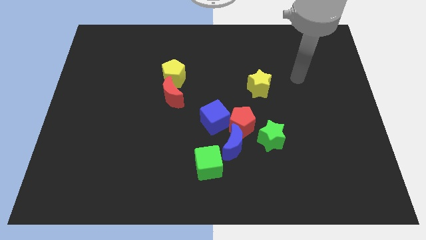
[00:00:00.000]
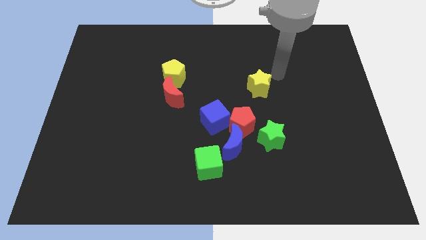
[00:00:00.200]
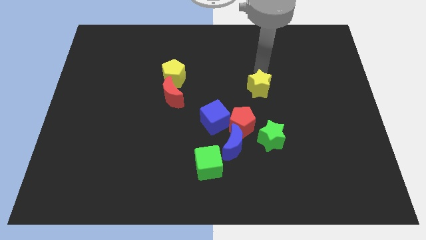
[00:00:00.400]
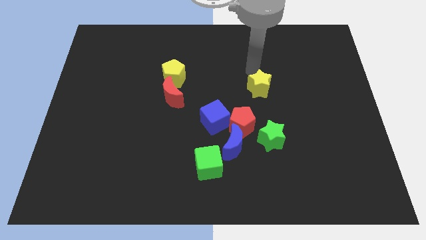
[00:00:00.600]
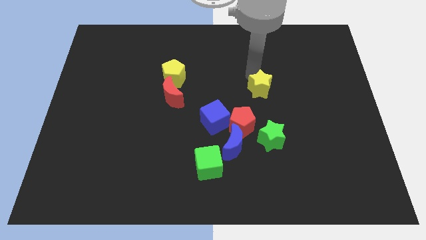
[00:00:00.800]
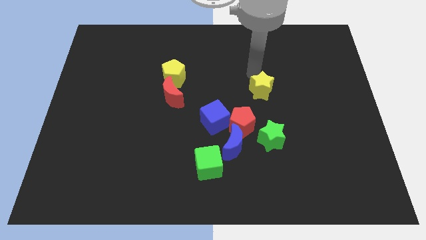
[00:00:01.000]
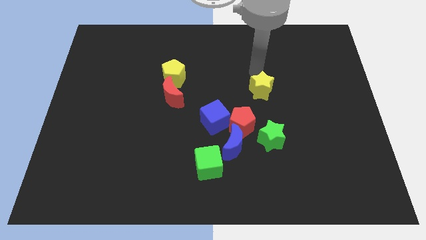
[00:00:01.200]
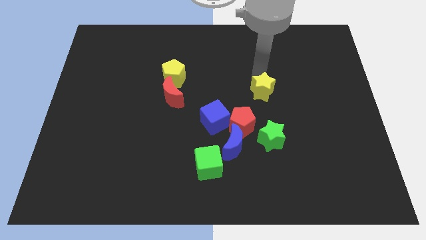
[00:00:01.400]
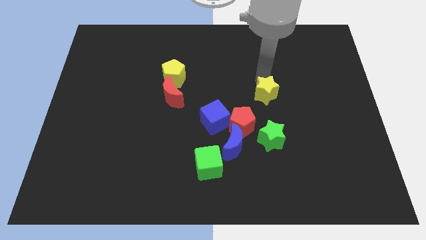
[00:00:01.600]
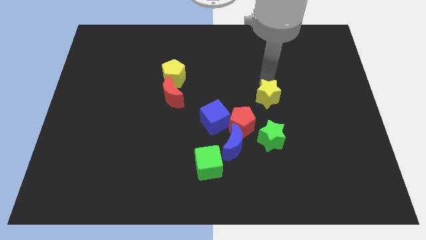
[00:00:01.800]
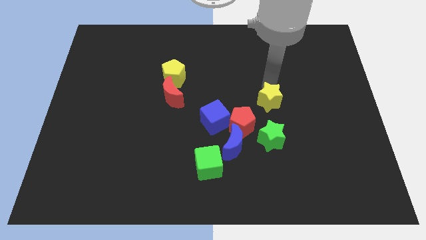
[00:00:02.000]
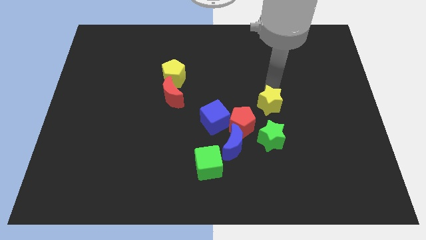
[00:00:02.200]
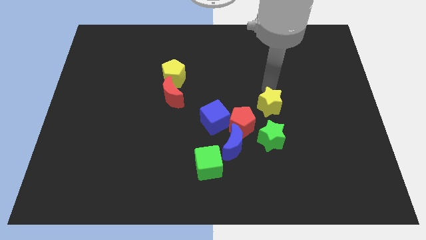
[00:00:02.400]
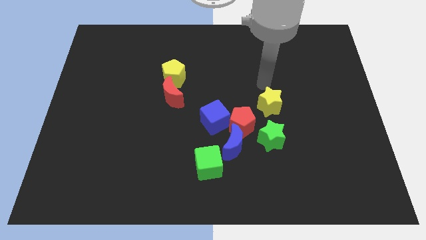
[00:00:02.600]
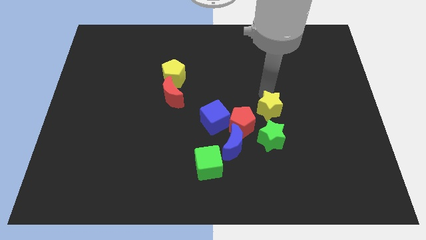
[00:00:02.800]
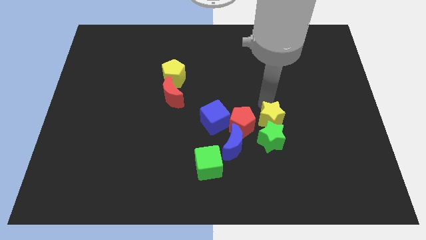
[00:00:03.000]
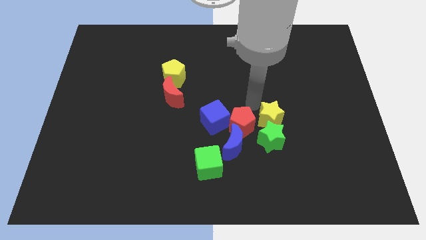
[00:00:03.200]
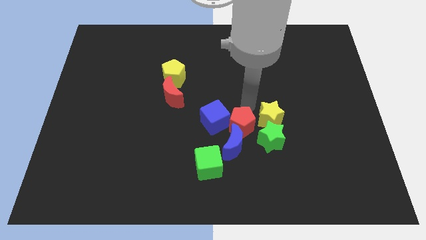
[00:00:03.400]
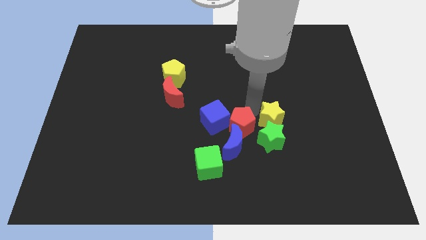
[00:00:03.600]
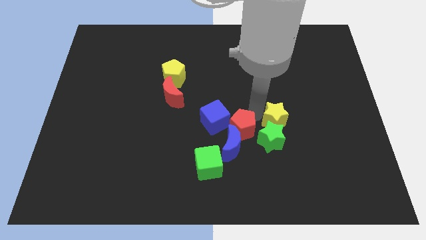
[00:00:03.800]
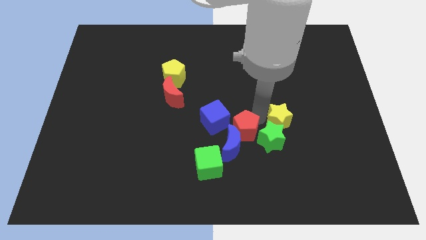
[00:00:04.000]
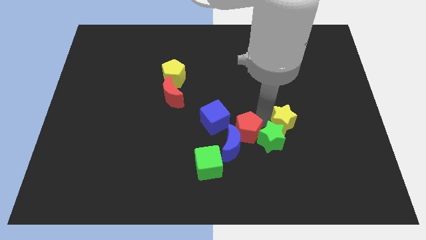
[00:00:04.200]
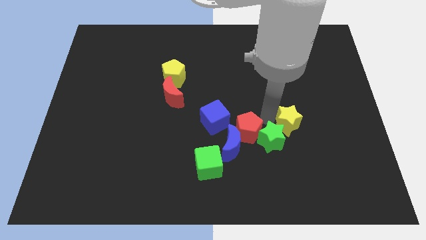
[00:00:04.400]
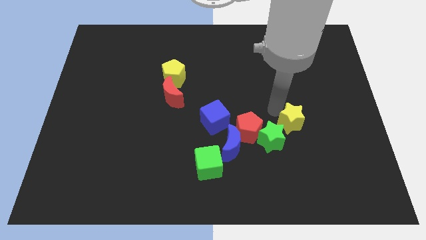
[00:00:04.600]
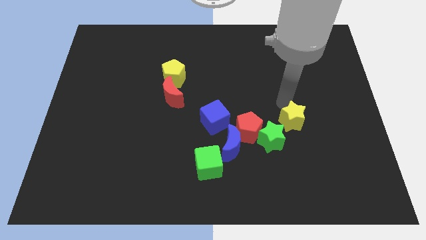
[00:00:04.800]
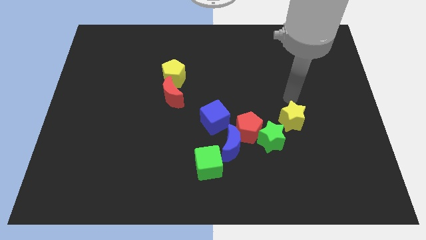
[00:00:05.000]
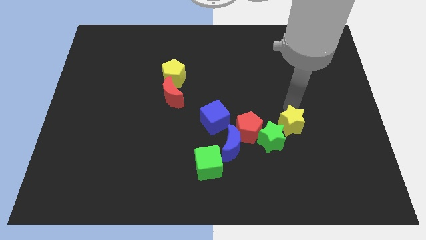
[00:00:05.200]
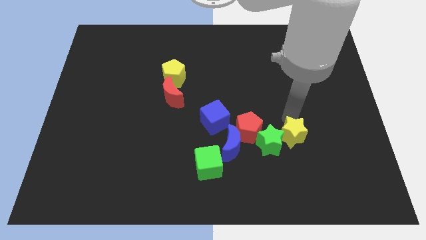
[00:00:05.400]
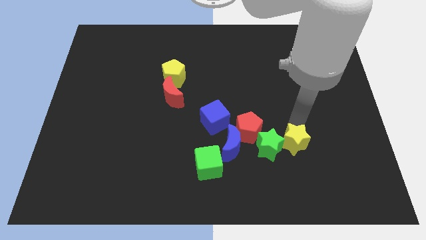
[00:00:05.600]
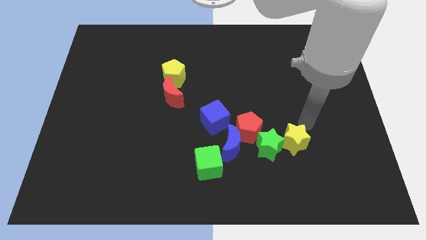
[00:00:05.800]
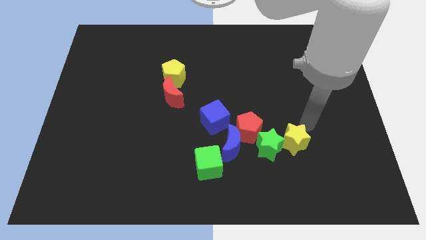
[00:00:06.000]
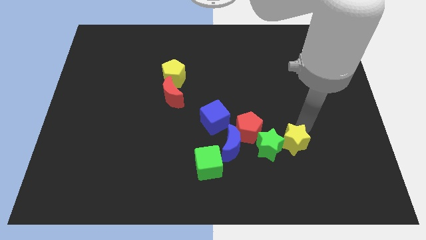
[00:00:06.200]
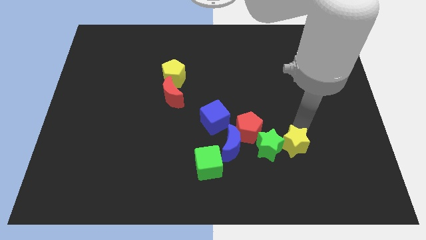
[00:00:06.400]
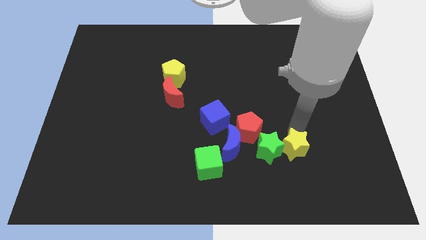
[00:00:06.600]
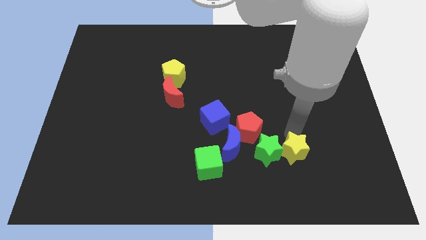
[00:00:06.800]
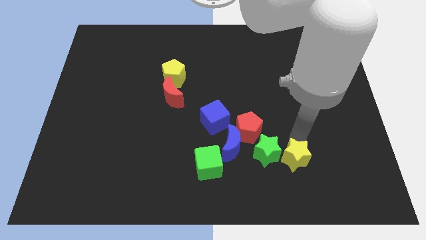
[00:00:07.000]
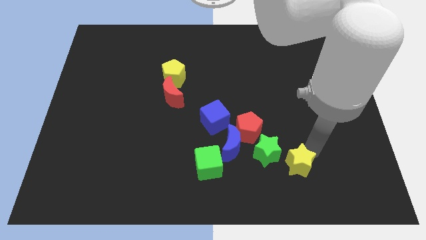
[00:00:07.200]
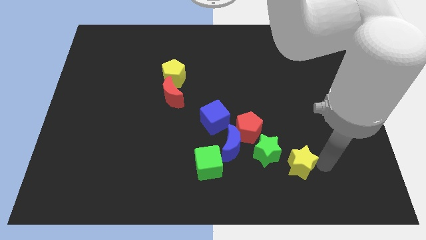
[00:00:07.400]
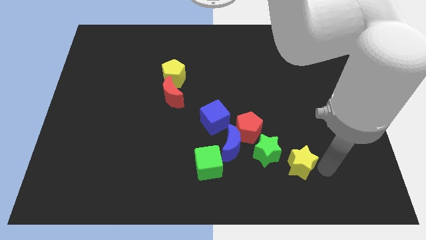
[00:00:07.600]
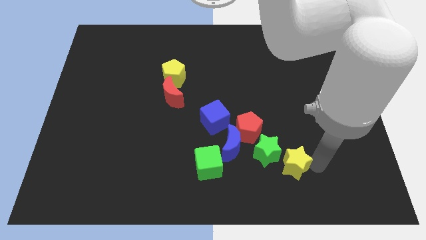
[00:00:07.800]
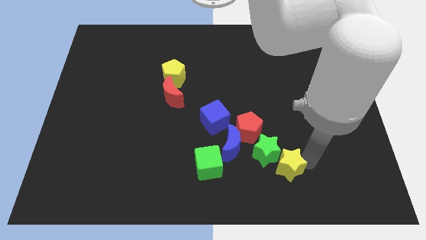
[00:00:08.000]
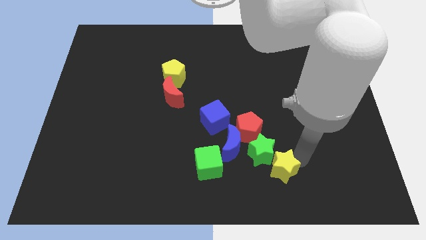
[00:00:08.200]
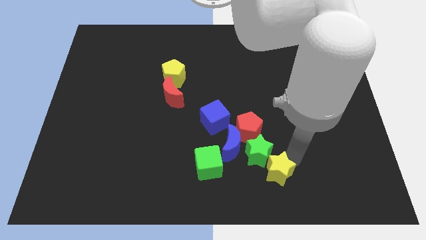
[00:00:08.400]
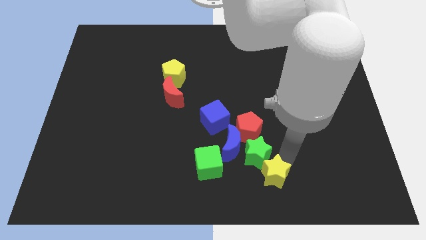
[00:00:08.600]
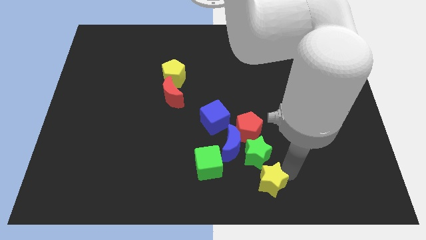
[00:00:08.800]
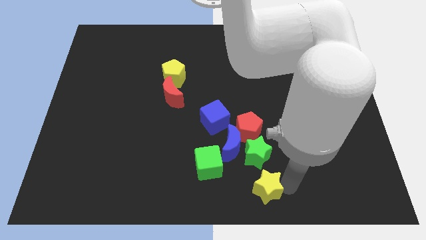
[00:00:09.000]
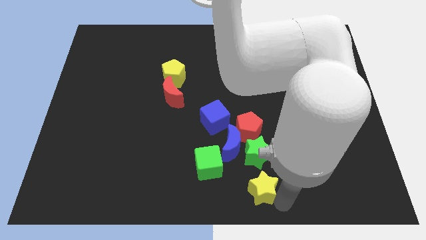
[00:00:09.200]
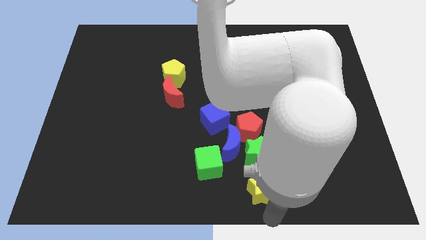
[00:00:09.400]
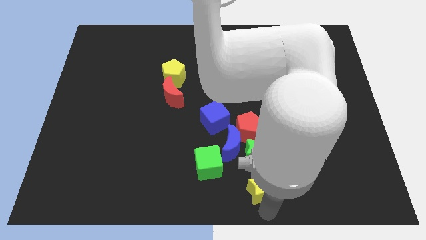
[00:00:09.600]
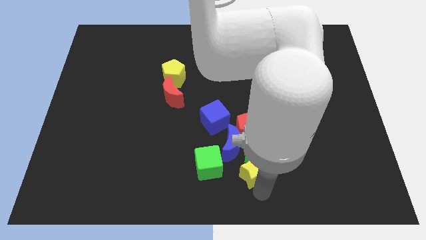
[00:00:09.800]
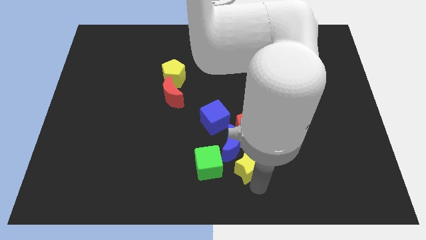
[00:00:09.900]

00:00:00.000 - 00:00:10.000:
slide the yellow star to the blue moon

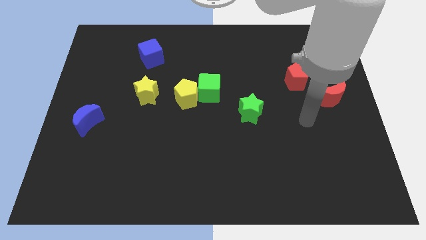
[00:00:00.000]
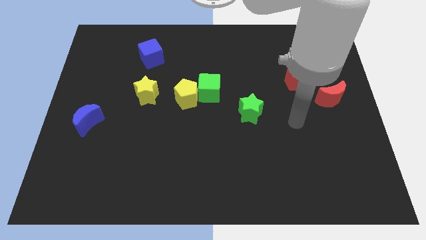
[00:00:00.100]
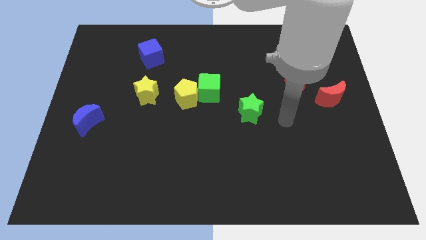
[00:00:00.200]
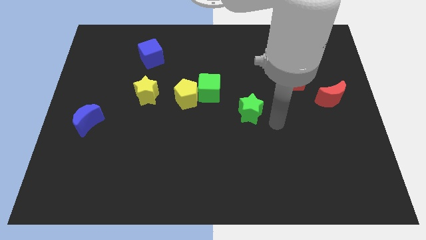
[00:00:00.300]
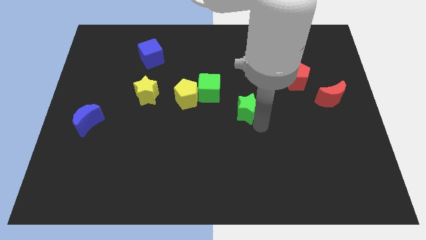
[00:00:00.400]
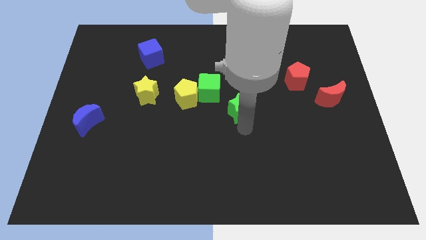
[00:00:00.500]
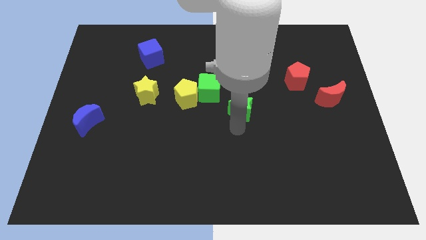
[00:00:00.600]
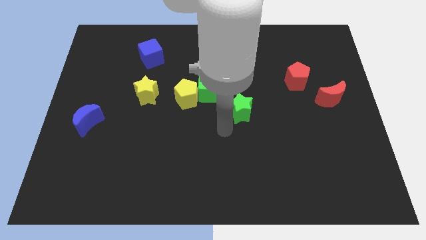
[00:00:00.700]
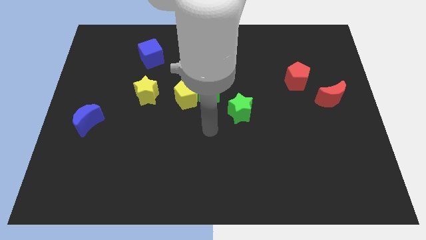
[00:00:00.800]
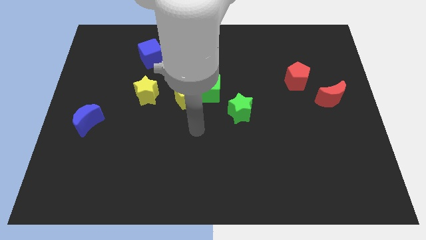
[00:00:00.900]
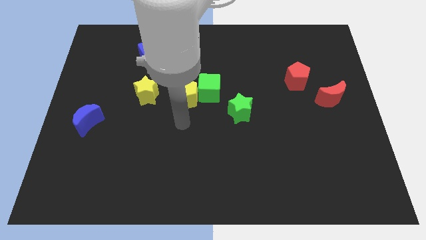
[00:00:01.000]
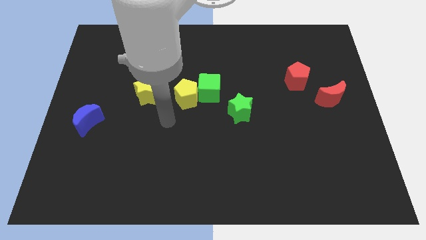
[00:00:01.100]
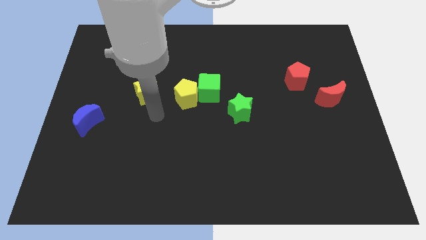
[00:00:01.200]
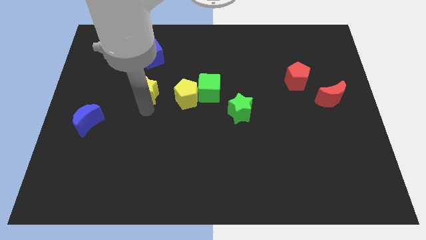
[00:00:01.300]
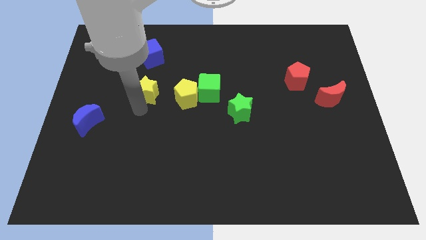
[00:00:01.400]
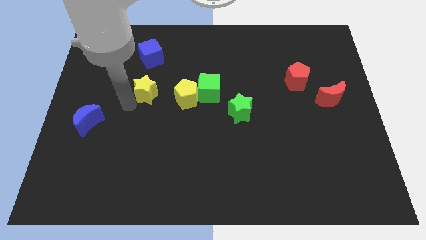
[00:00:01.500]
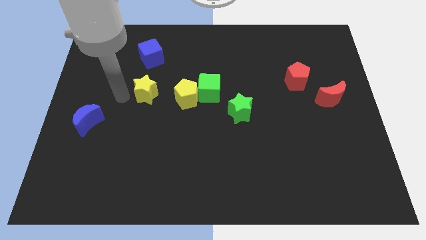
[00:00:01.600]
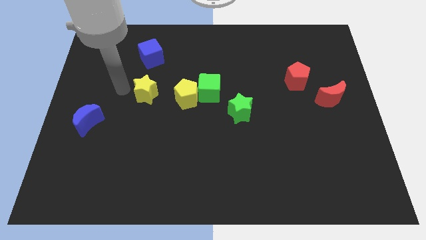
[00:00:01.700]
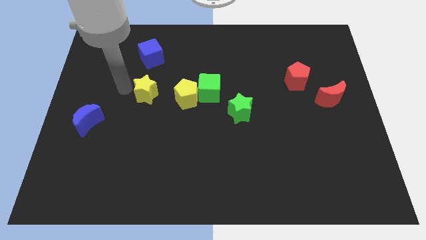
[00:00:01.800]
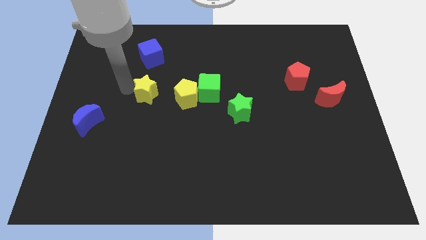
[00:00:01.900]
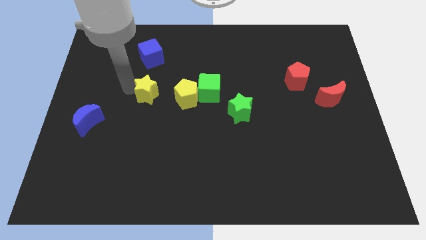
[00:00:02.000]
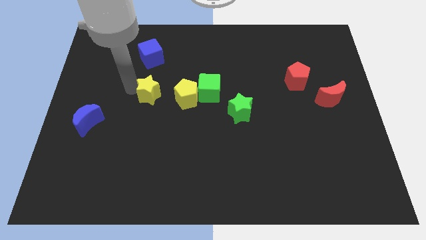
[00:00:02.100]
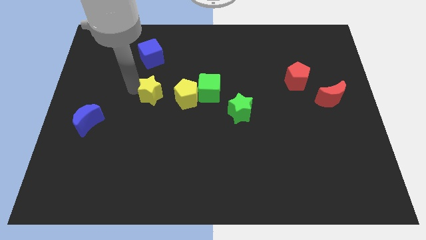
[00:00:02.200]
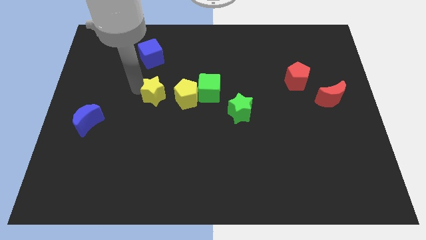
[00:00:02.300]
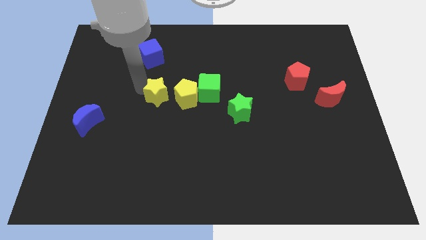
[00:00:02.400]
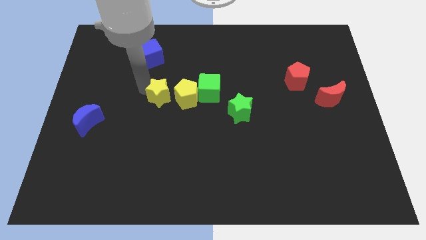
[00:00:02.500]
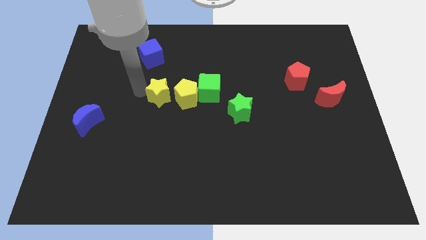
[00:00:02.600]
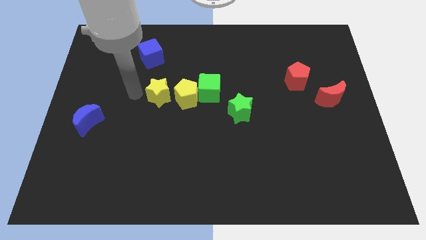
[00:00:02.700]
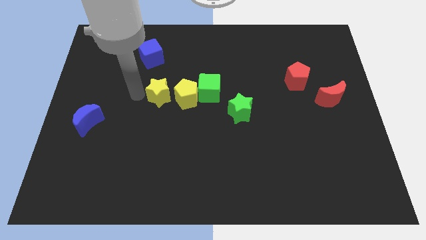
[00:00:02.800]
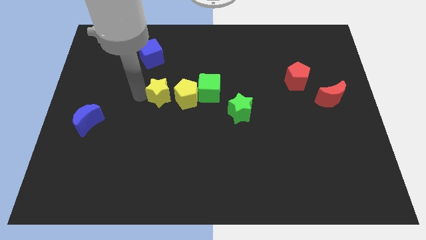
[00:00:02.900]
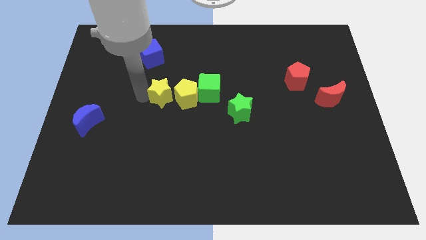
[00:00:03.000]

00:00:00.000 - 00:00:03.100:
put the yellow star close to the yellow pentagon
